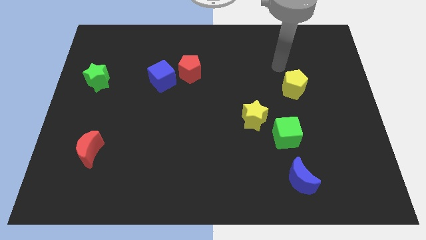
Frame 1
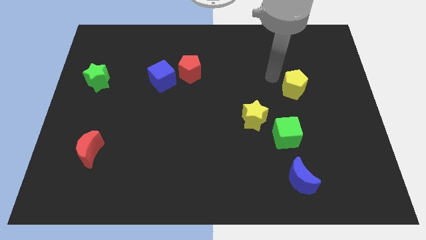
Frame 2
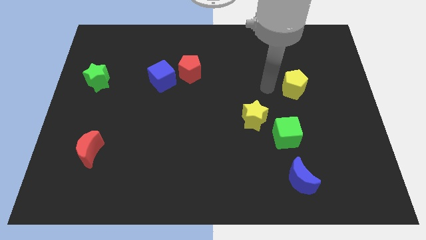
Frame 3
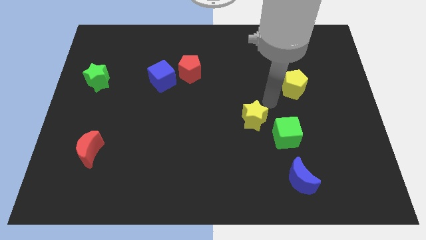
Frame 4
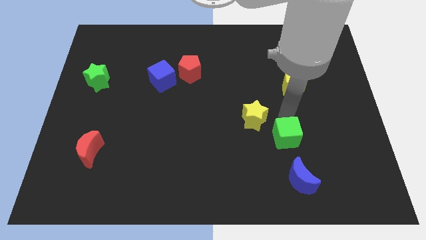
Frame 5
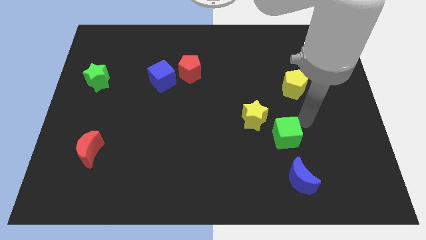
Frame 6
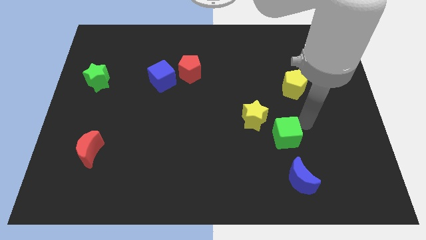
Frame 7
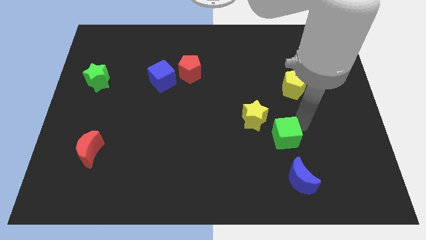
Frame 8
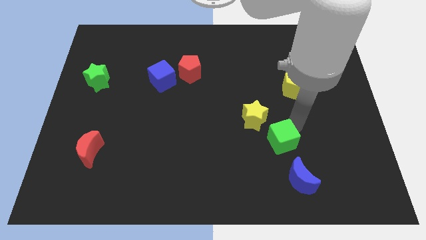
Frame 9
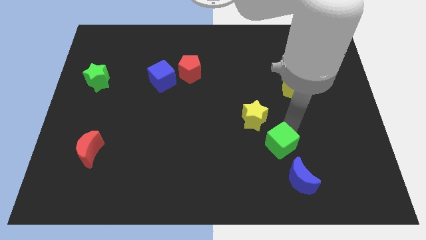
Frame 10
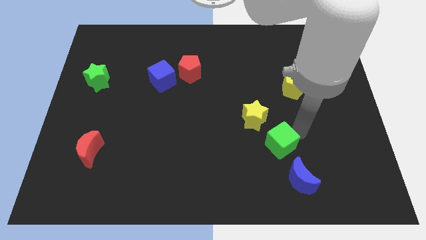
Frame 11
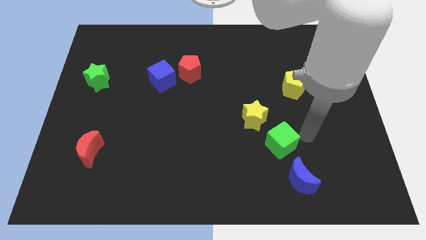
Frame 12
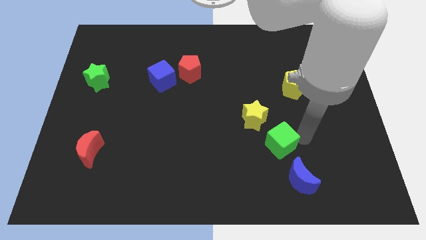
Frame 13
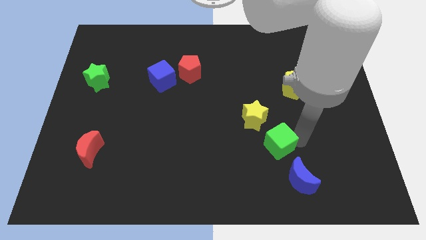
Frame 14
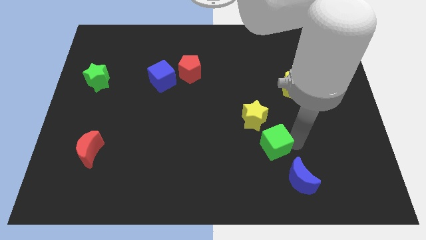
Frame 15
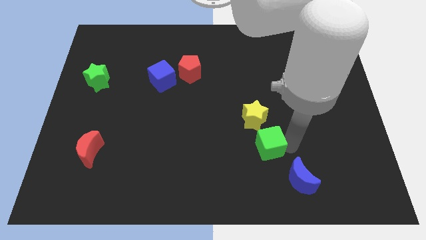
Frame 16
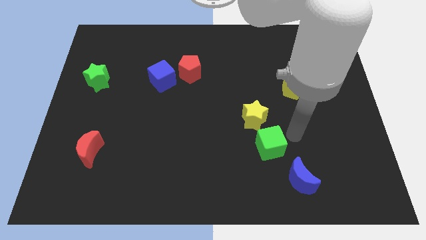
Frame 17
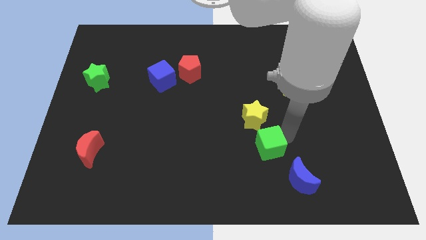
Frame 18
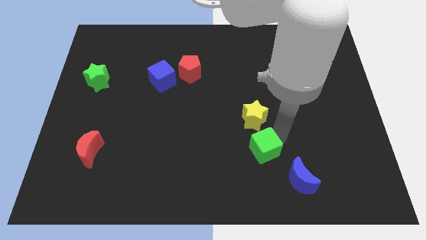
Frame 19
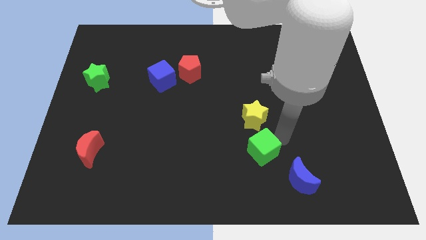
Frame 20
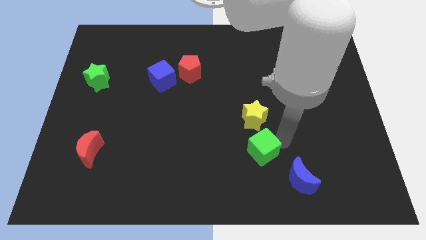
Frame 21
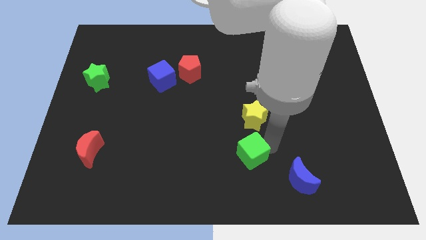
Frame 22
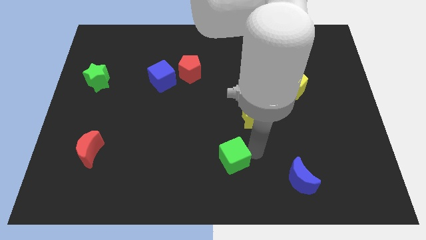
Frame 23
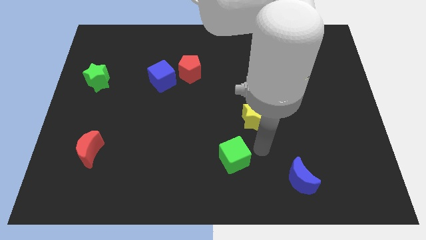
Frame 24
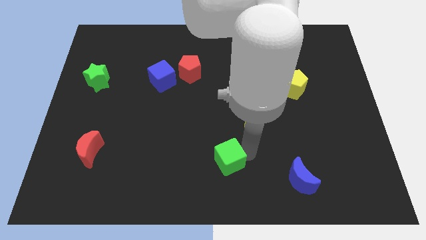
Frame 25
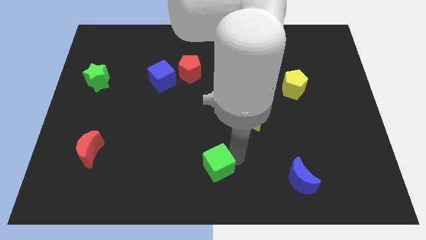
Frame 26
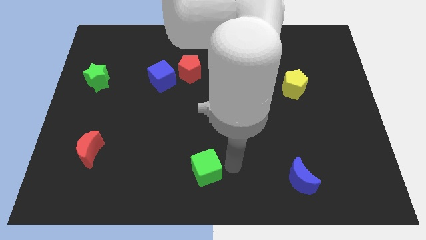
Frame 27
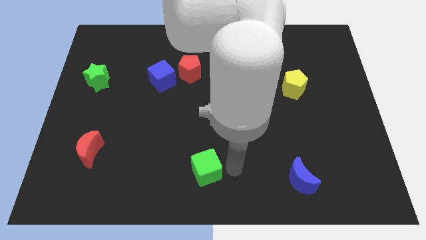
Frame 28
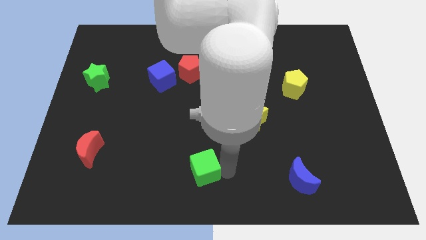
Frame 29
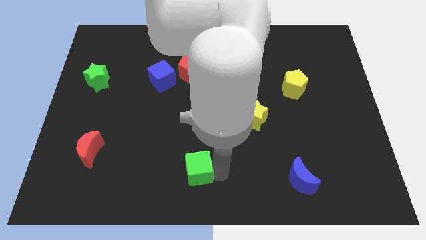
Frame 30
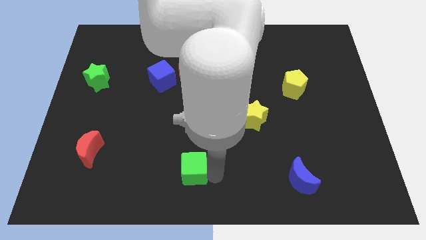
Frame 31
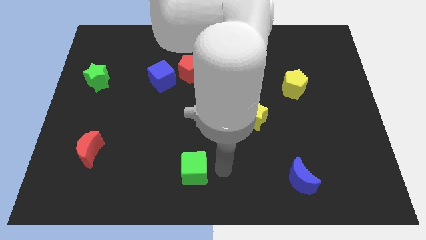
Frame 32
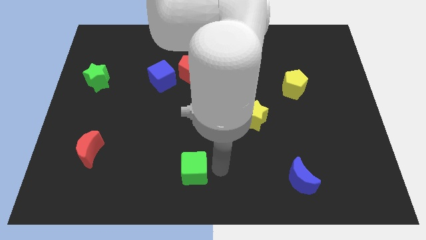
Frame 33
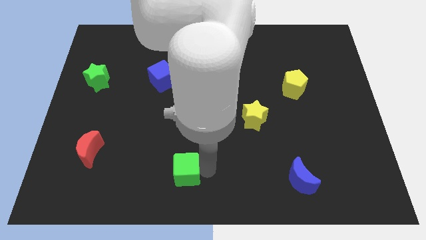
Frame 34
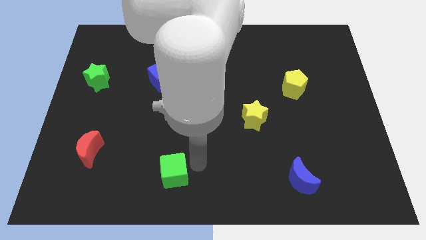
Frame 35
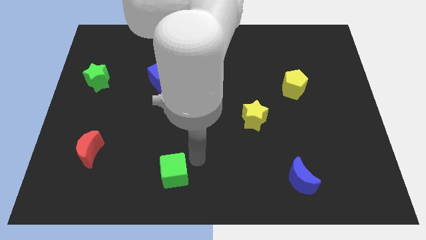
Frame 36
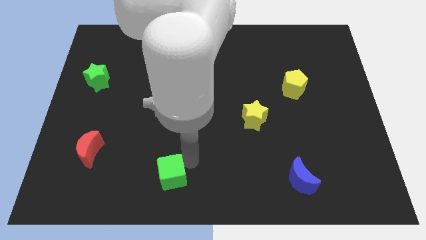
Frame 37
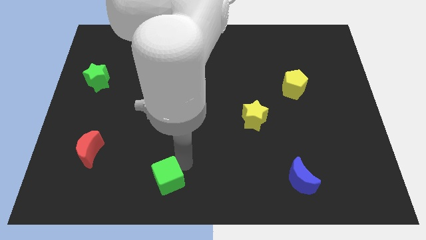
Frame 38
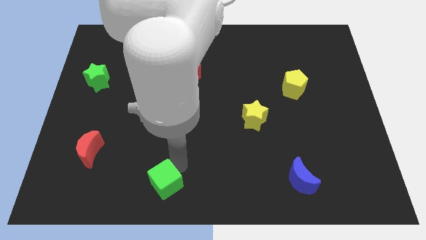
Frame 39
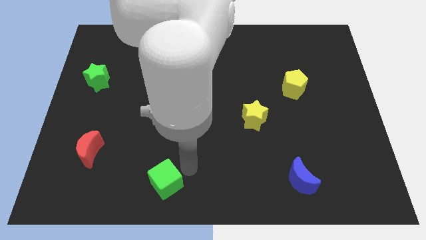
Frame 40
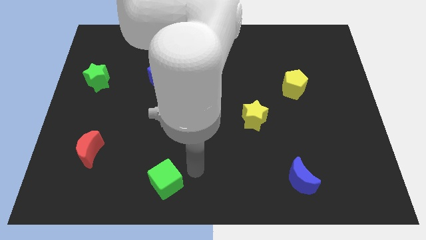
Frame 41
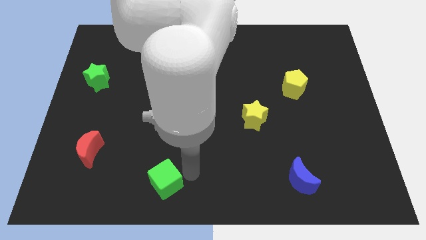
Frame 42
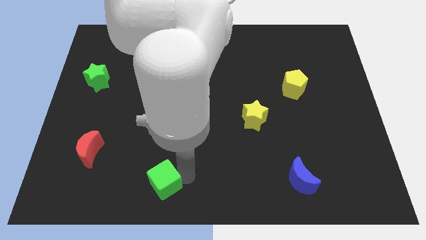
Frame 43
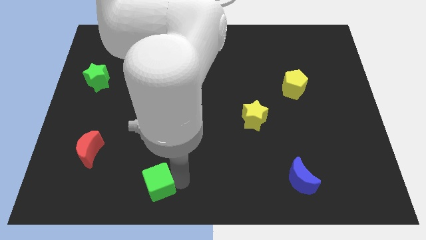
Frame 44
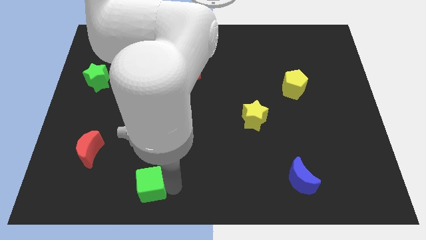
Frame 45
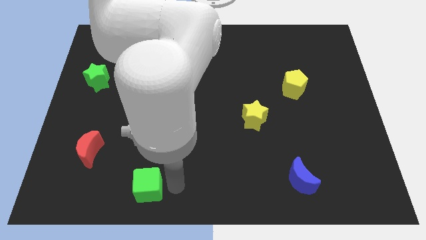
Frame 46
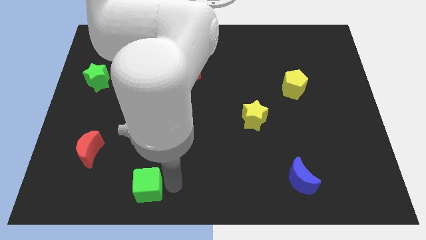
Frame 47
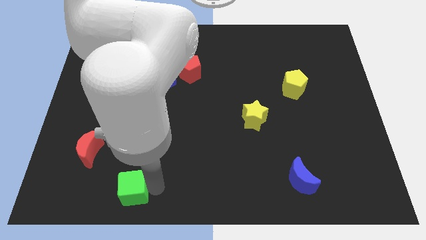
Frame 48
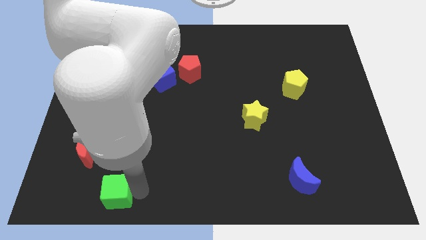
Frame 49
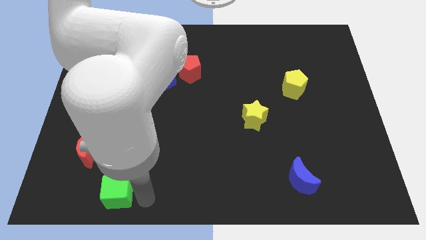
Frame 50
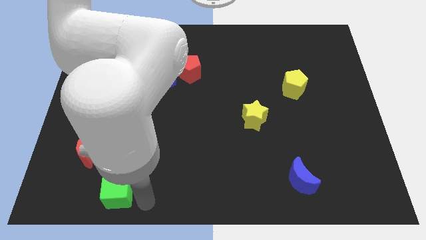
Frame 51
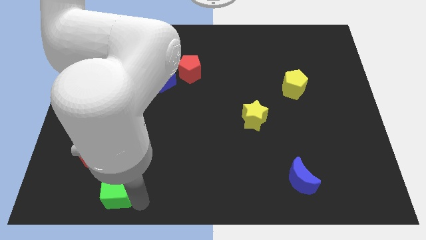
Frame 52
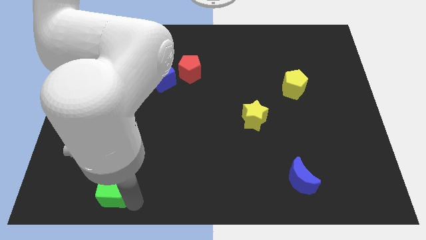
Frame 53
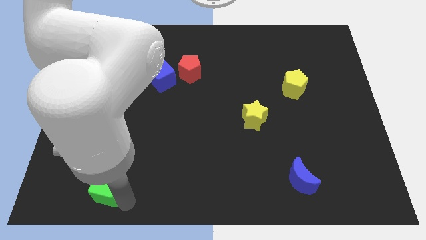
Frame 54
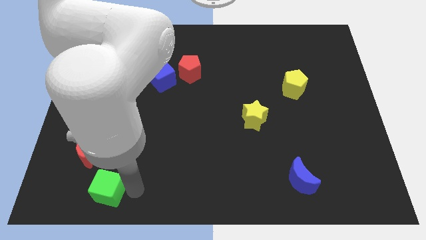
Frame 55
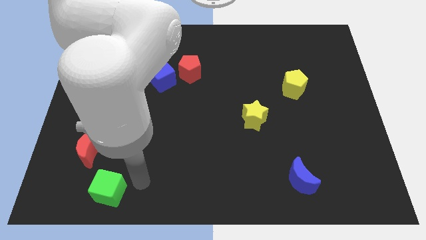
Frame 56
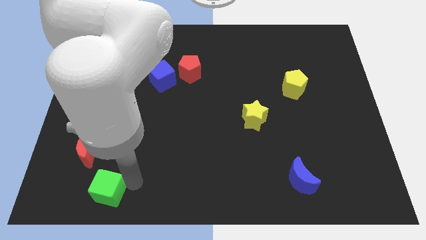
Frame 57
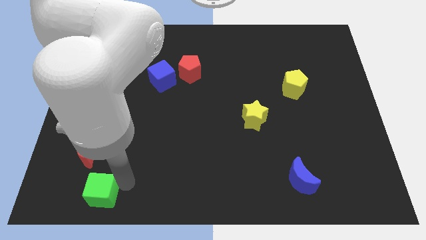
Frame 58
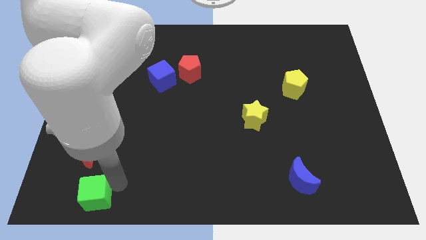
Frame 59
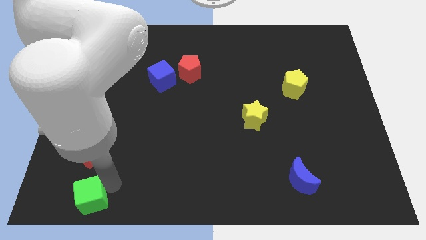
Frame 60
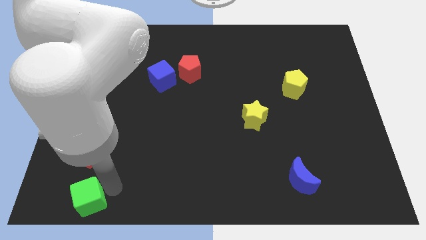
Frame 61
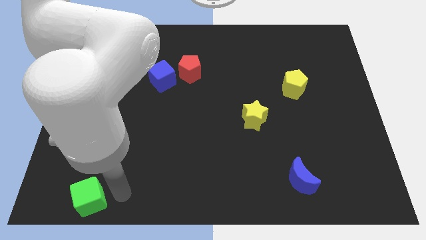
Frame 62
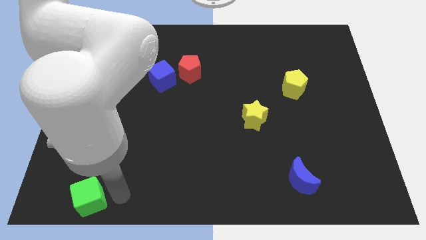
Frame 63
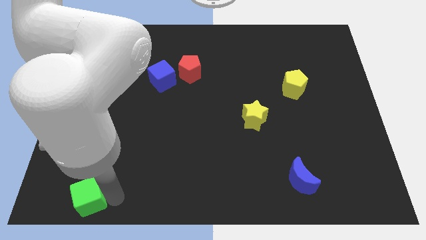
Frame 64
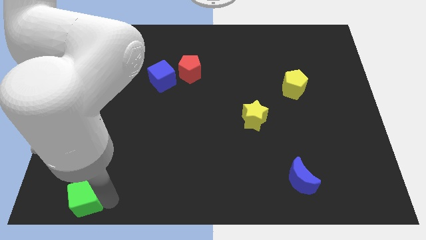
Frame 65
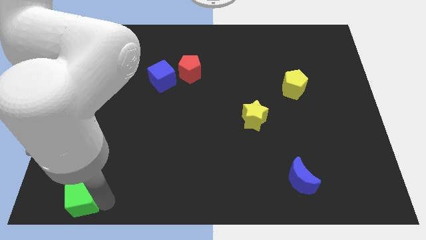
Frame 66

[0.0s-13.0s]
push the green cube to the lower left corner
